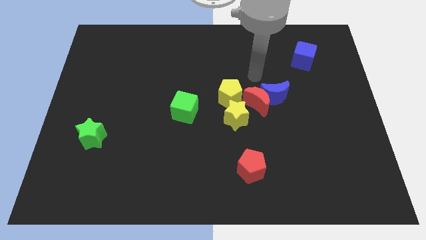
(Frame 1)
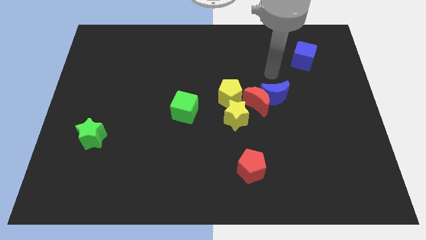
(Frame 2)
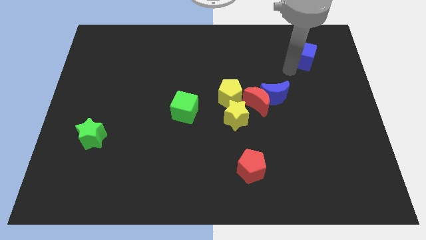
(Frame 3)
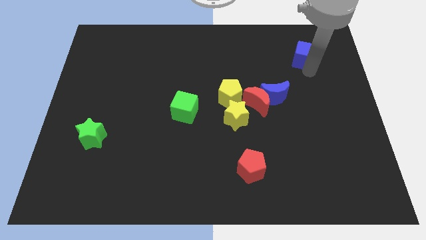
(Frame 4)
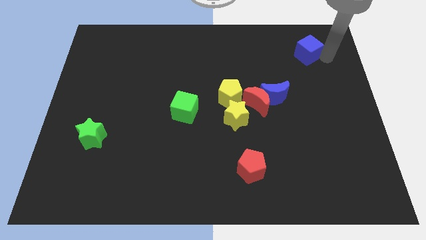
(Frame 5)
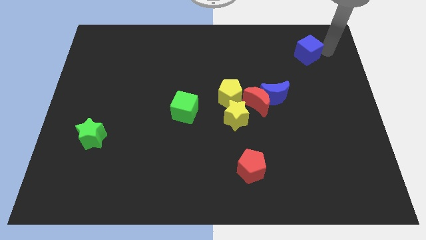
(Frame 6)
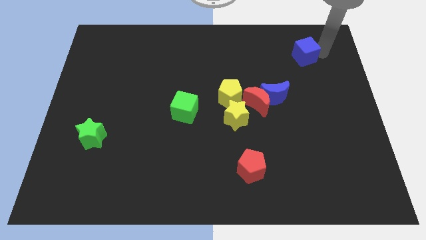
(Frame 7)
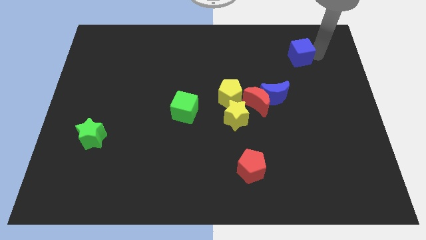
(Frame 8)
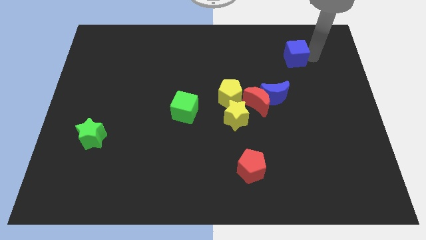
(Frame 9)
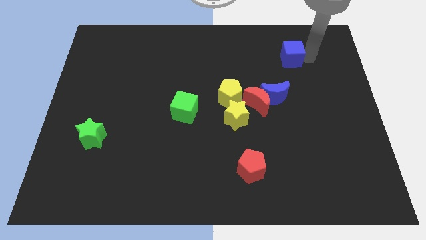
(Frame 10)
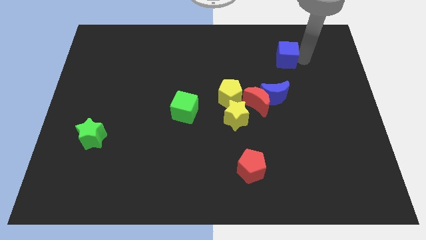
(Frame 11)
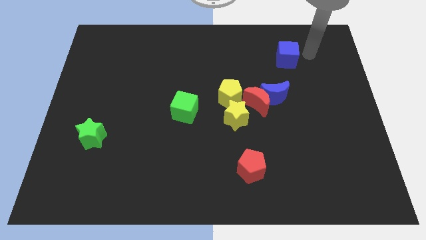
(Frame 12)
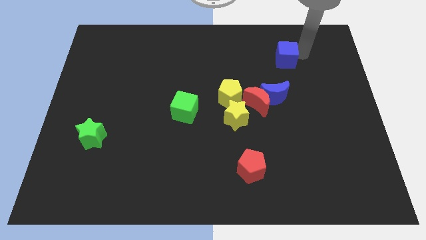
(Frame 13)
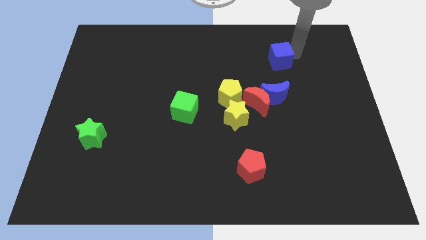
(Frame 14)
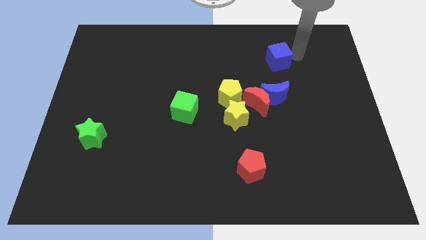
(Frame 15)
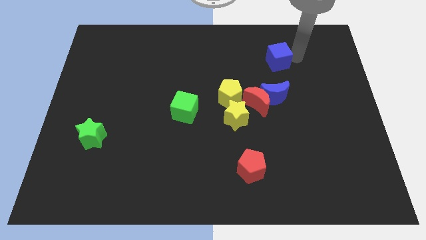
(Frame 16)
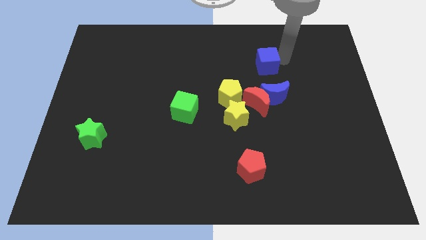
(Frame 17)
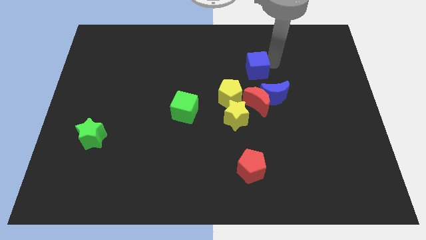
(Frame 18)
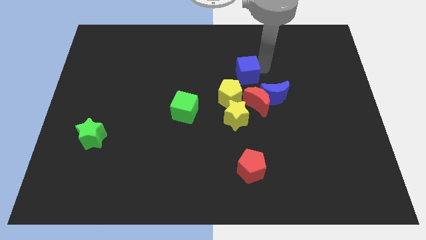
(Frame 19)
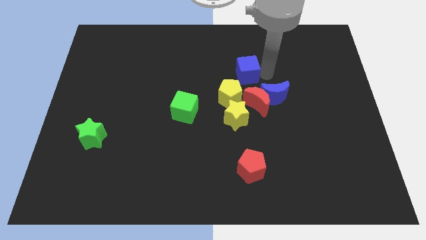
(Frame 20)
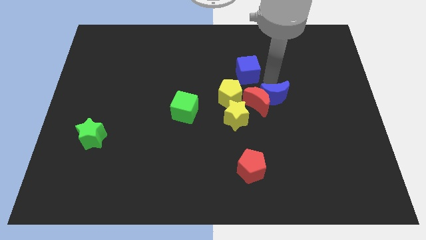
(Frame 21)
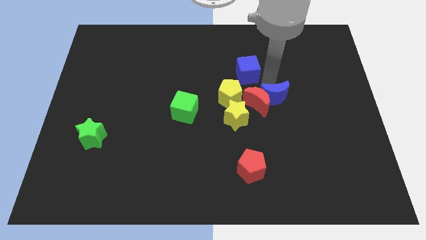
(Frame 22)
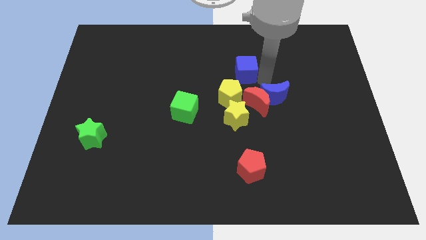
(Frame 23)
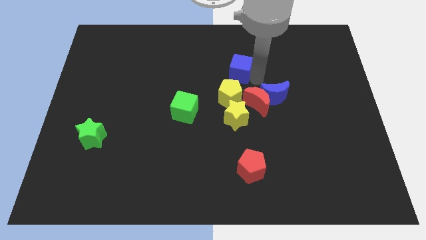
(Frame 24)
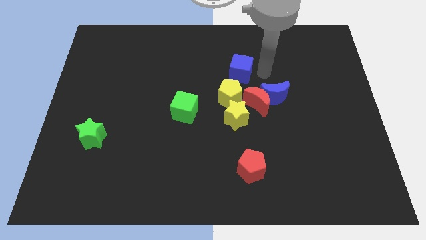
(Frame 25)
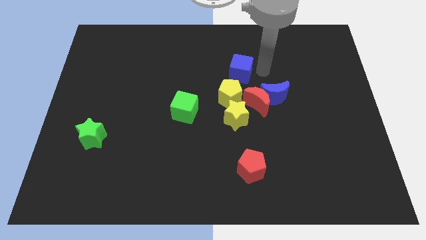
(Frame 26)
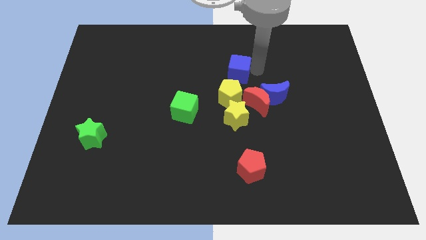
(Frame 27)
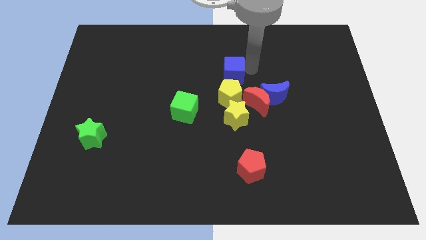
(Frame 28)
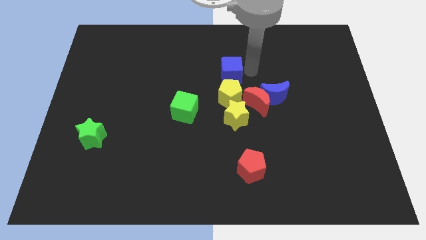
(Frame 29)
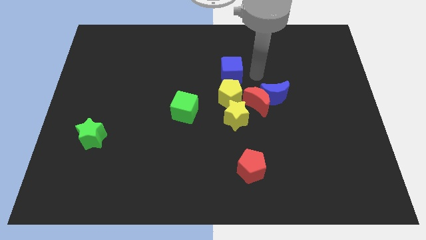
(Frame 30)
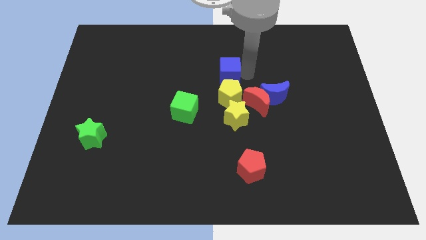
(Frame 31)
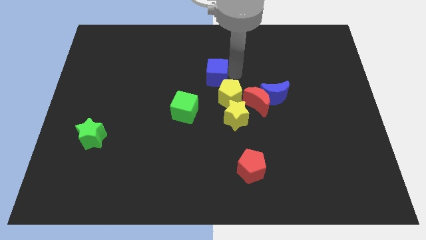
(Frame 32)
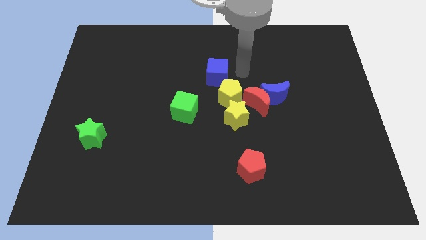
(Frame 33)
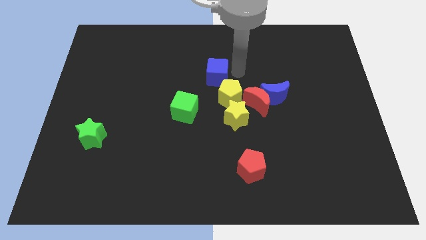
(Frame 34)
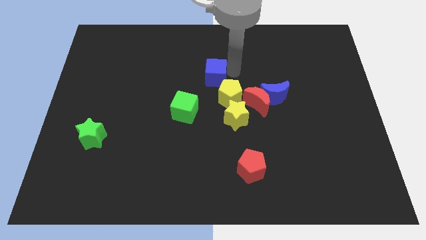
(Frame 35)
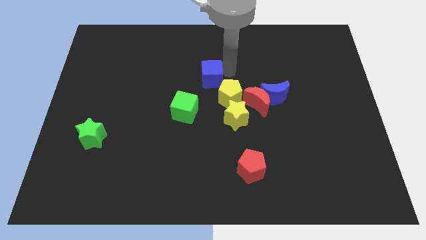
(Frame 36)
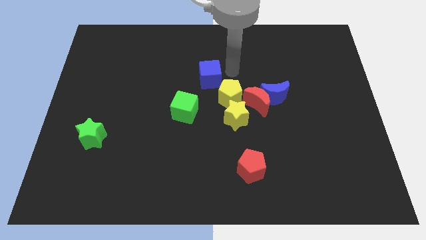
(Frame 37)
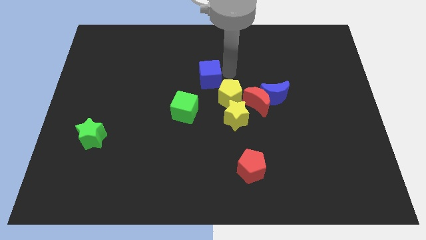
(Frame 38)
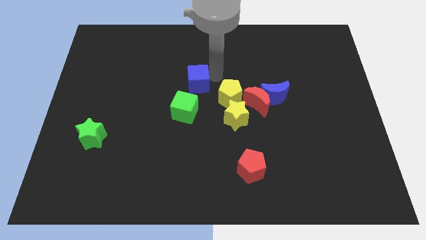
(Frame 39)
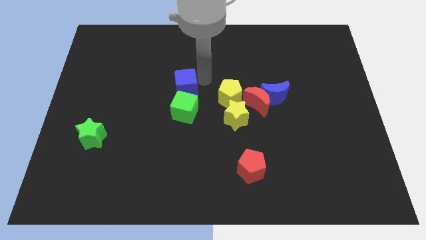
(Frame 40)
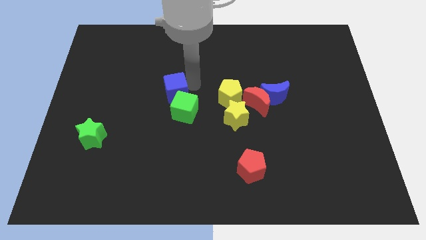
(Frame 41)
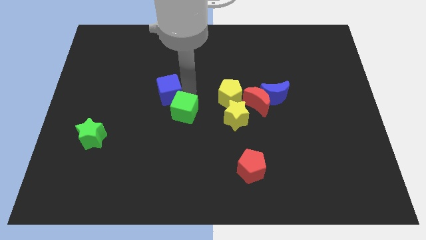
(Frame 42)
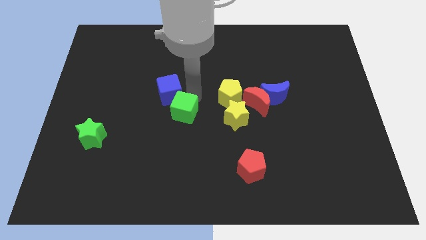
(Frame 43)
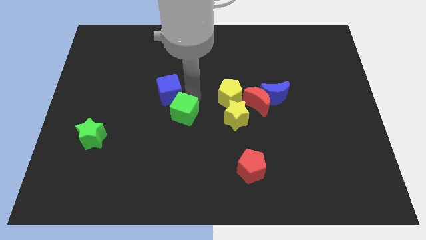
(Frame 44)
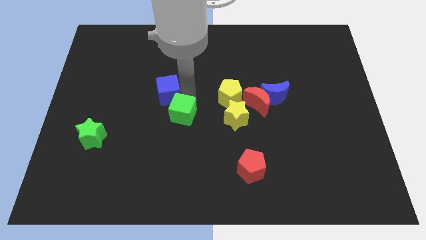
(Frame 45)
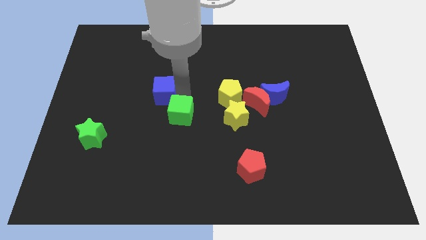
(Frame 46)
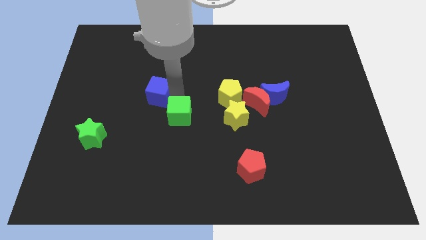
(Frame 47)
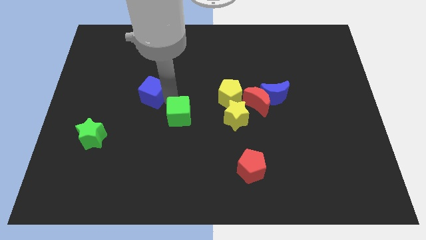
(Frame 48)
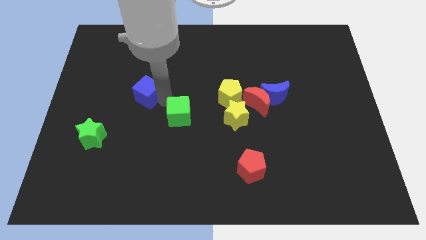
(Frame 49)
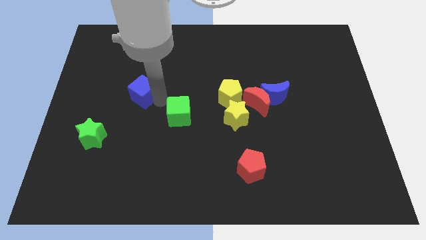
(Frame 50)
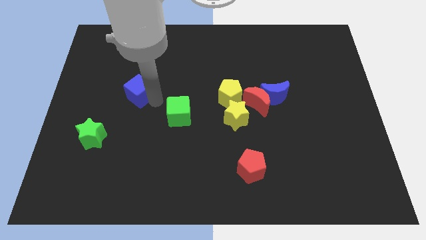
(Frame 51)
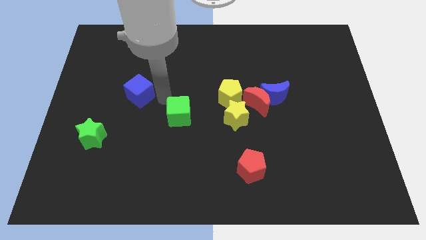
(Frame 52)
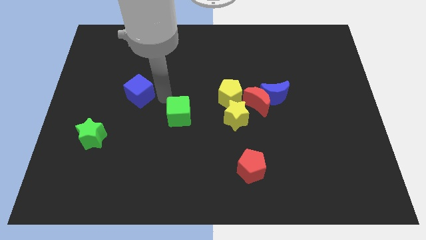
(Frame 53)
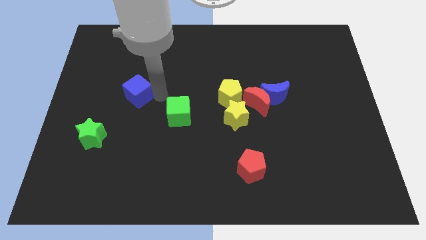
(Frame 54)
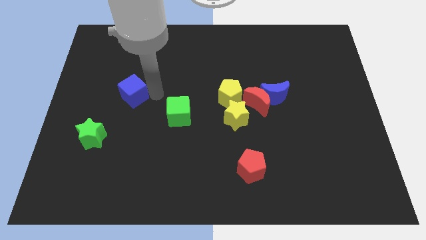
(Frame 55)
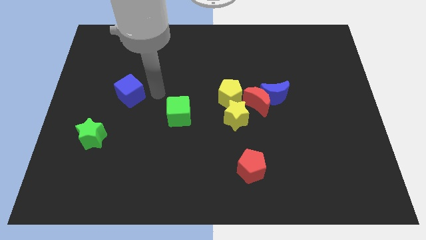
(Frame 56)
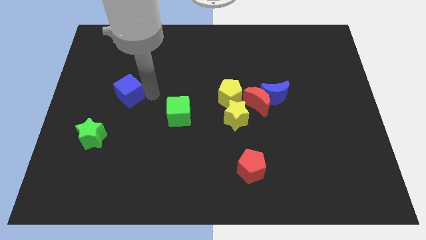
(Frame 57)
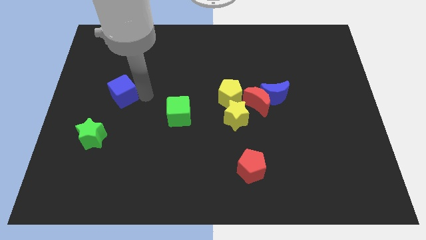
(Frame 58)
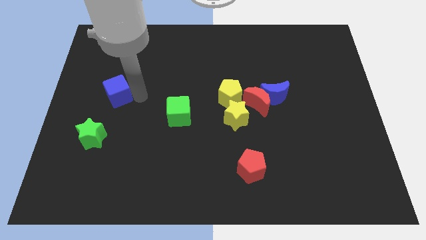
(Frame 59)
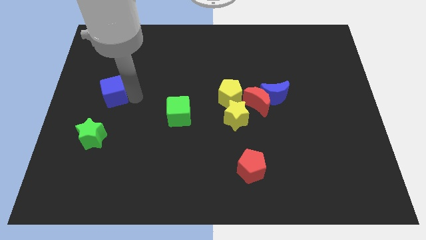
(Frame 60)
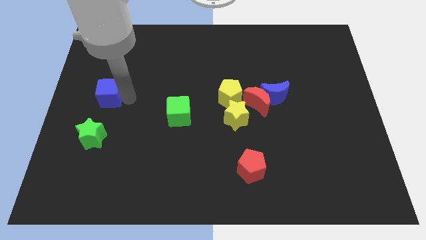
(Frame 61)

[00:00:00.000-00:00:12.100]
move the blue cube to the center left
